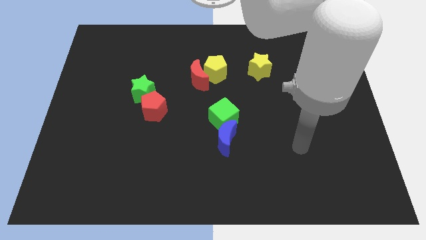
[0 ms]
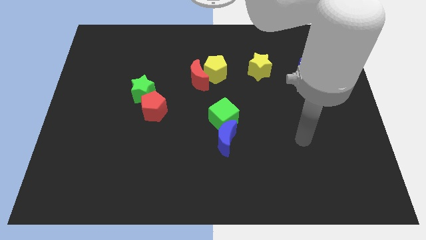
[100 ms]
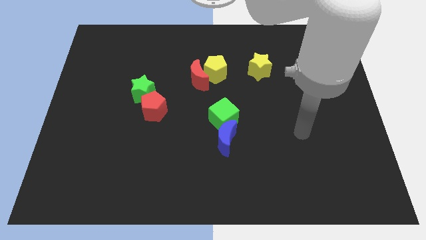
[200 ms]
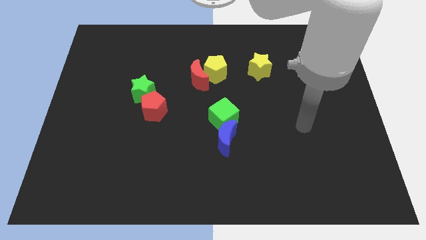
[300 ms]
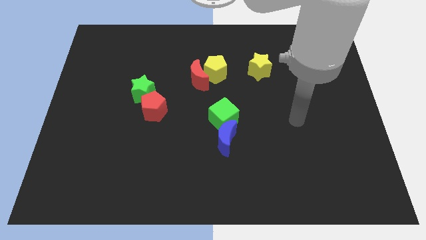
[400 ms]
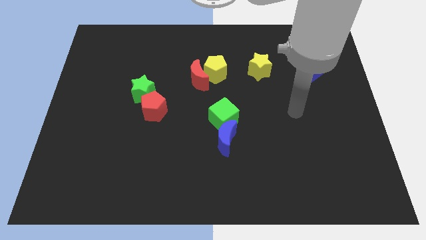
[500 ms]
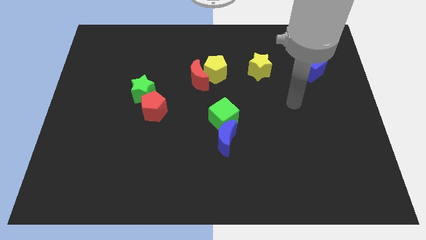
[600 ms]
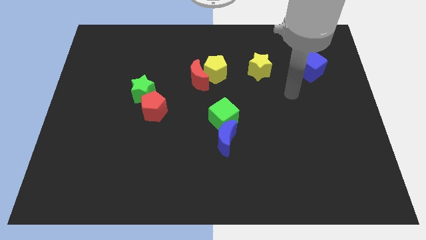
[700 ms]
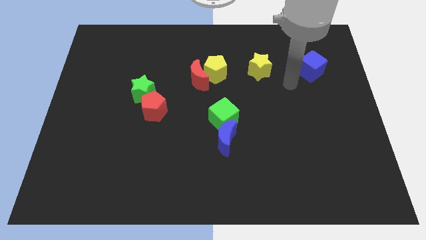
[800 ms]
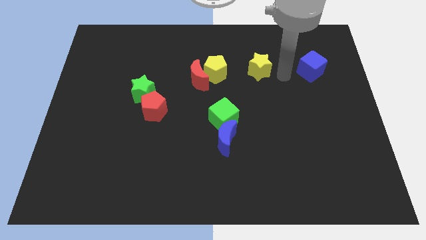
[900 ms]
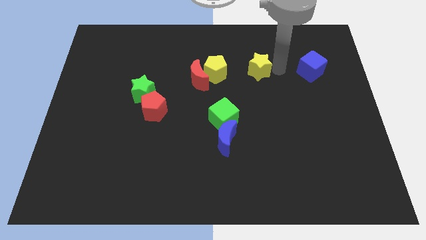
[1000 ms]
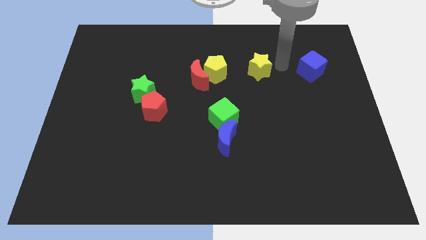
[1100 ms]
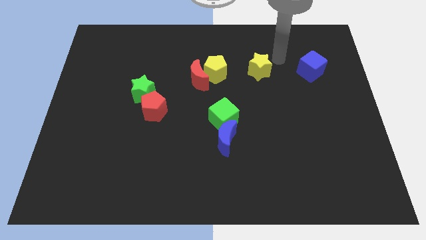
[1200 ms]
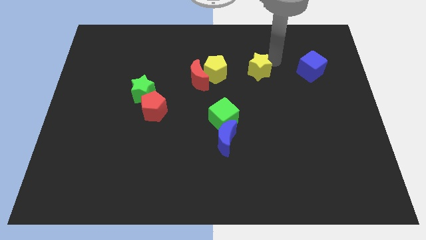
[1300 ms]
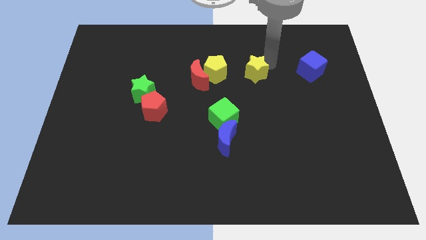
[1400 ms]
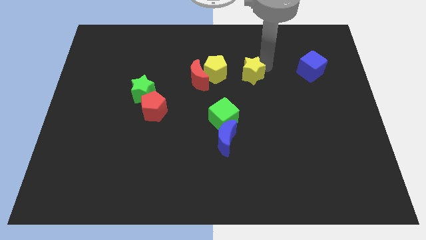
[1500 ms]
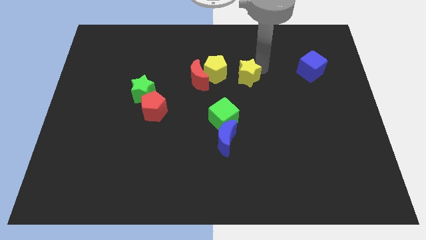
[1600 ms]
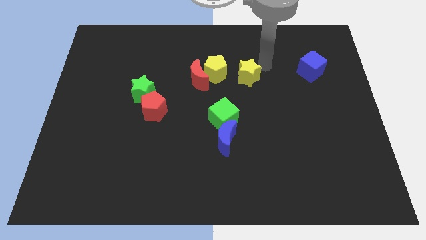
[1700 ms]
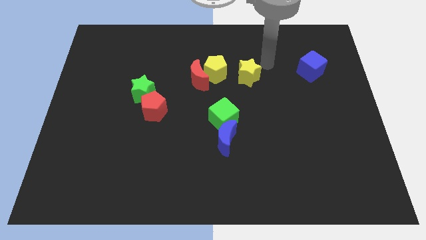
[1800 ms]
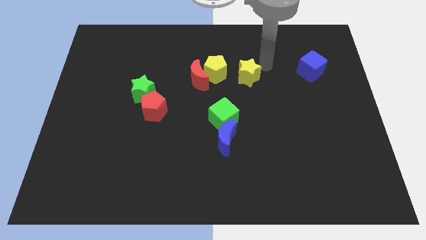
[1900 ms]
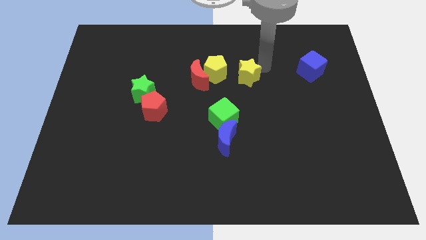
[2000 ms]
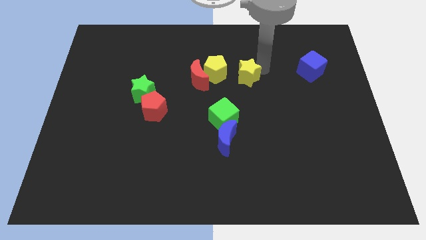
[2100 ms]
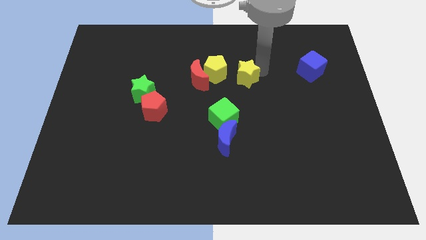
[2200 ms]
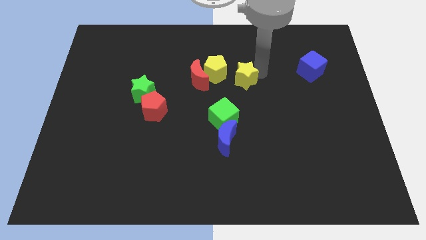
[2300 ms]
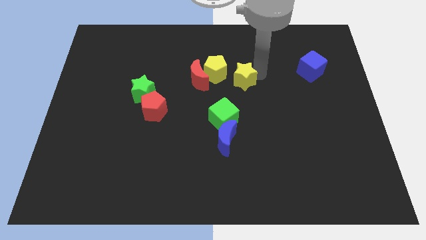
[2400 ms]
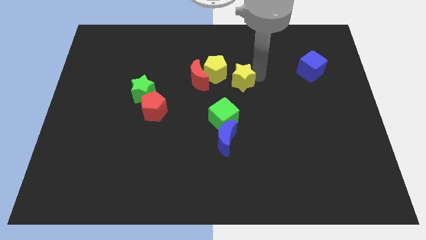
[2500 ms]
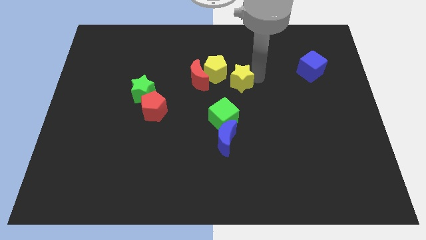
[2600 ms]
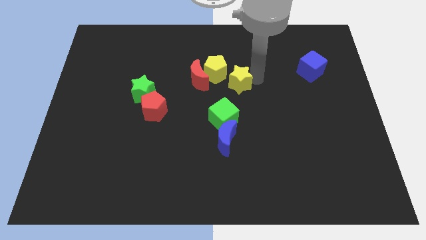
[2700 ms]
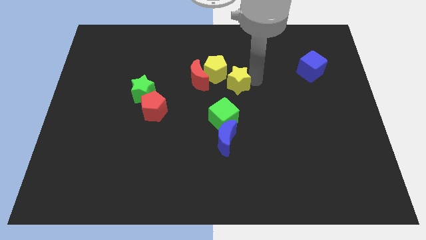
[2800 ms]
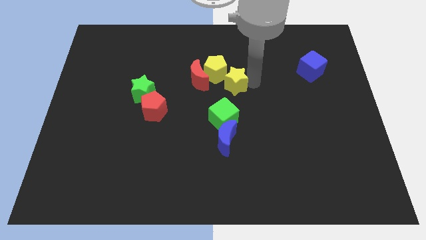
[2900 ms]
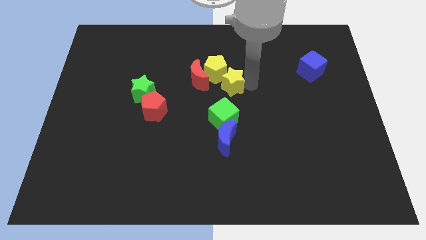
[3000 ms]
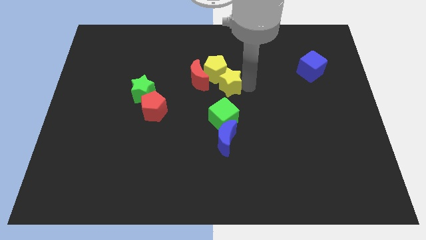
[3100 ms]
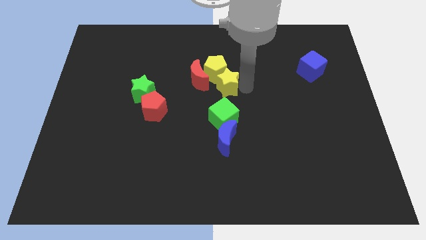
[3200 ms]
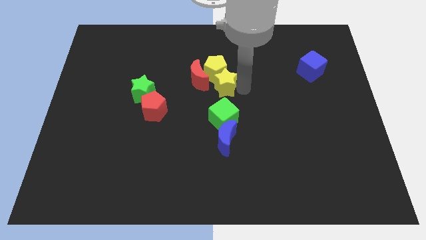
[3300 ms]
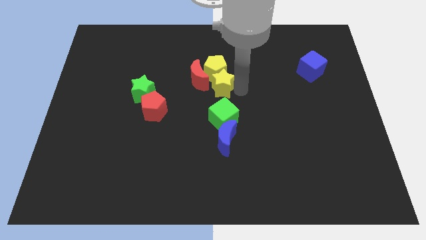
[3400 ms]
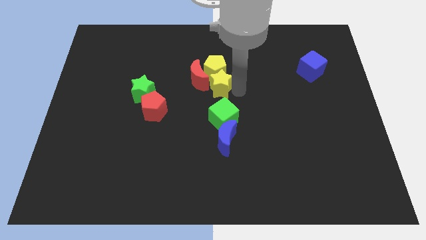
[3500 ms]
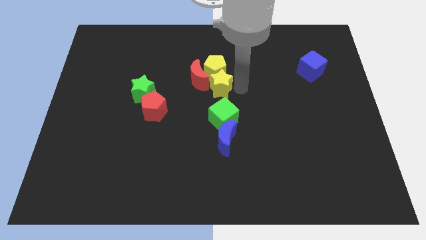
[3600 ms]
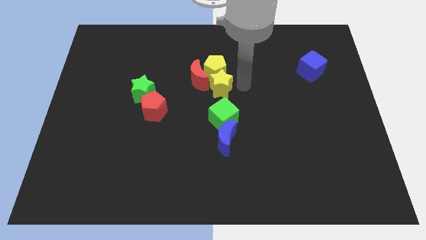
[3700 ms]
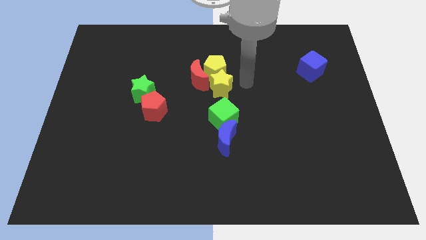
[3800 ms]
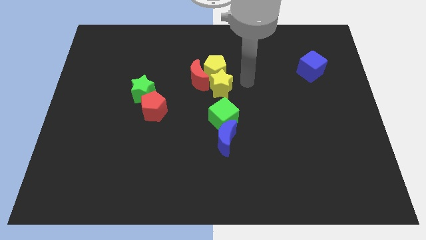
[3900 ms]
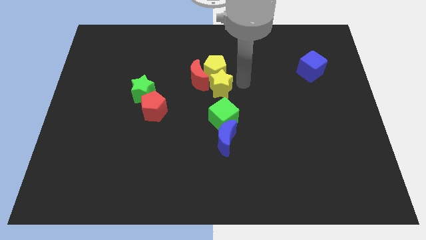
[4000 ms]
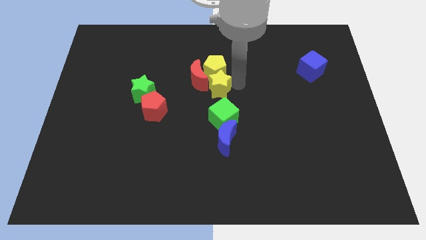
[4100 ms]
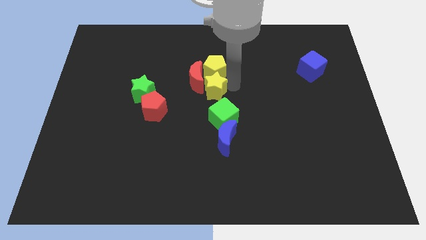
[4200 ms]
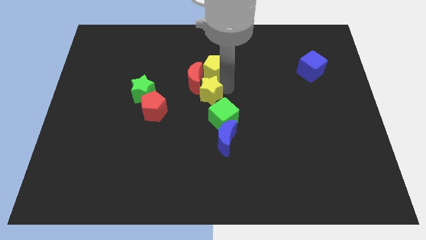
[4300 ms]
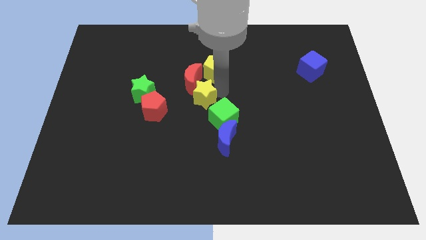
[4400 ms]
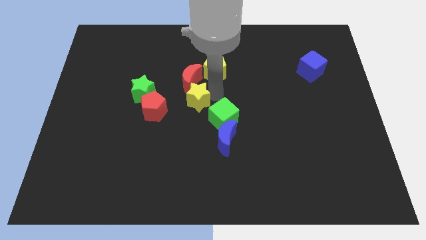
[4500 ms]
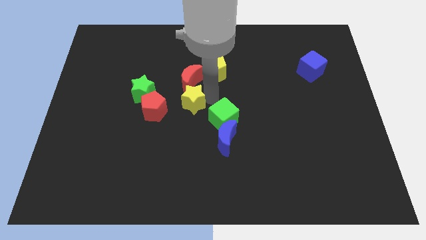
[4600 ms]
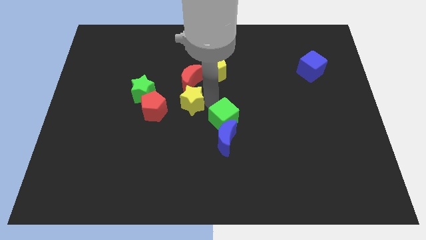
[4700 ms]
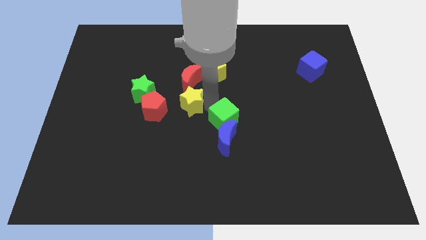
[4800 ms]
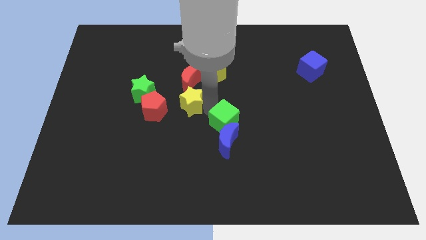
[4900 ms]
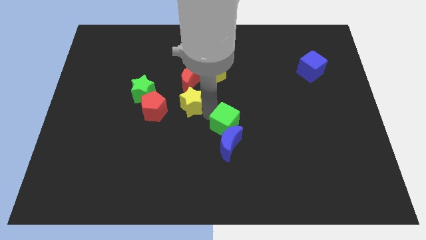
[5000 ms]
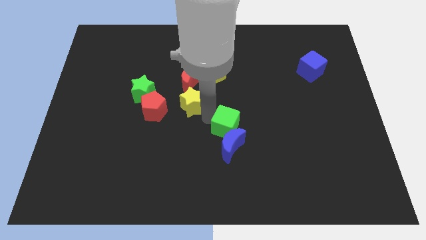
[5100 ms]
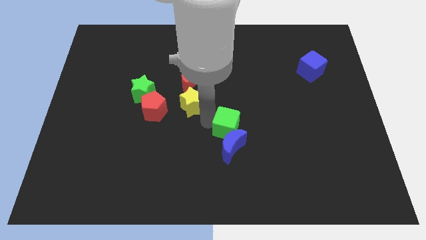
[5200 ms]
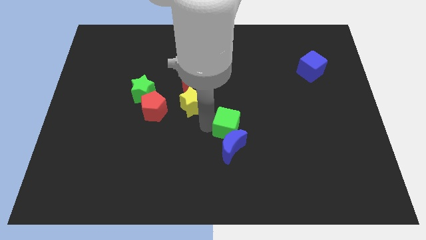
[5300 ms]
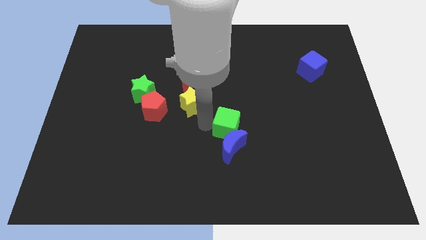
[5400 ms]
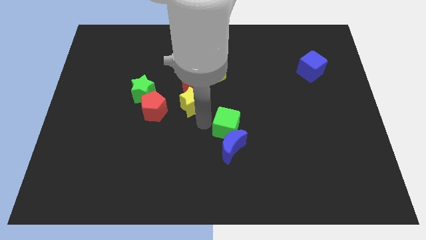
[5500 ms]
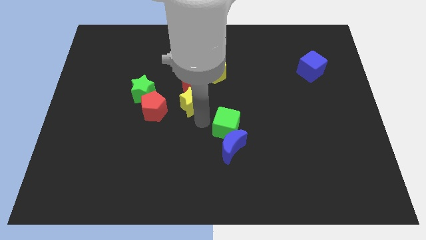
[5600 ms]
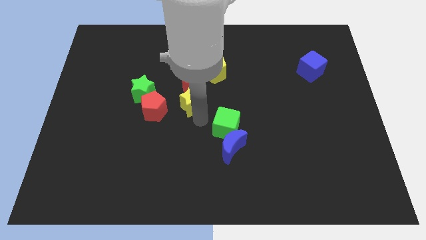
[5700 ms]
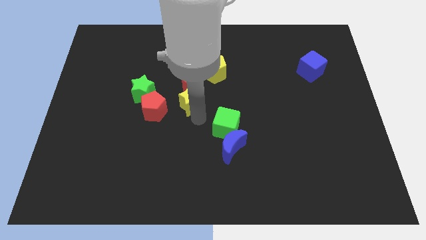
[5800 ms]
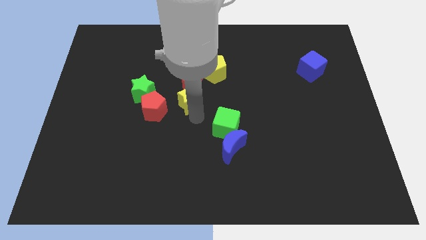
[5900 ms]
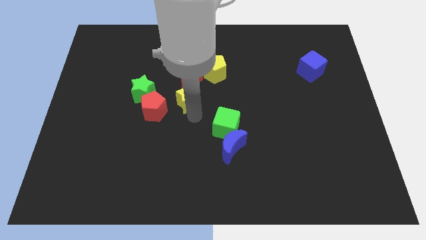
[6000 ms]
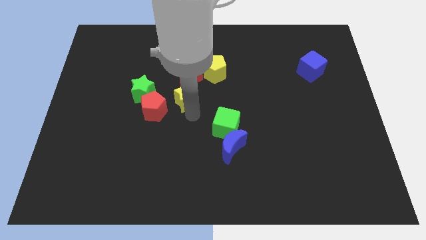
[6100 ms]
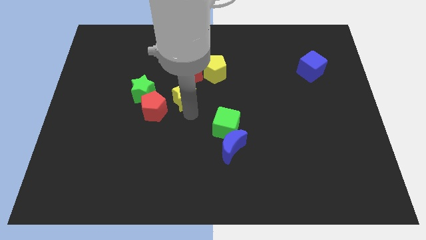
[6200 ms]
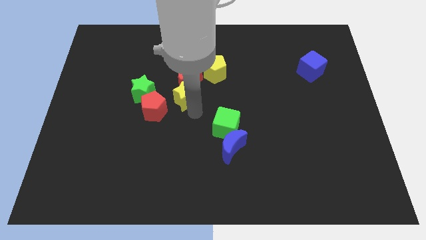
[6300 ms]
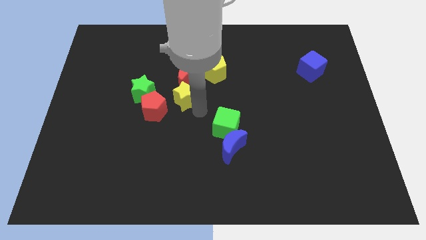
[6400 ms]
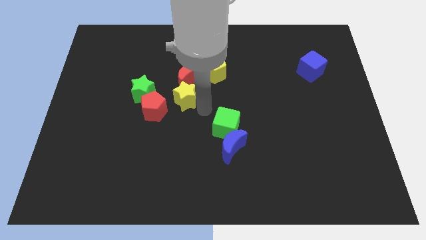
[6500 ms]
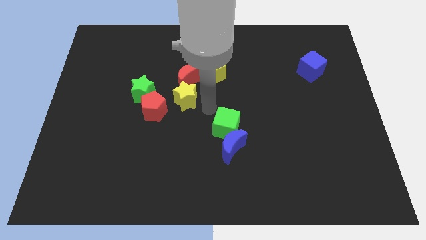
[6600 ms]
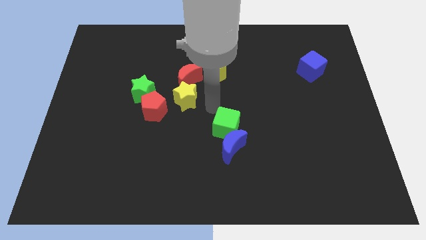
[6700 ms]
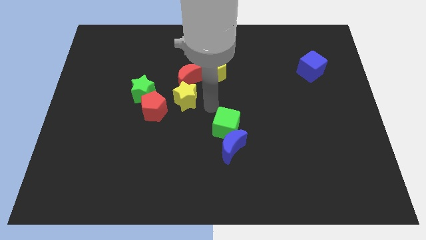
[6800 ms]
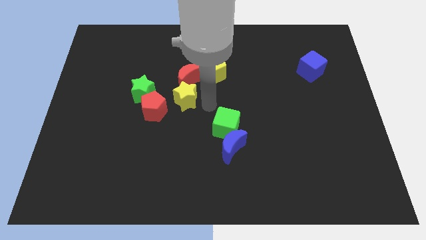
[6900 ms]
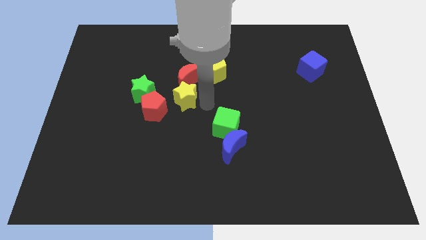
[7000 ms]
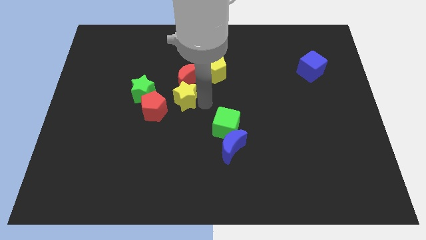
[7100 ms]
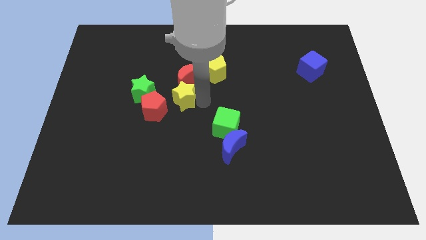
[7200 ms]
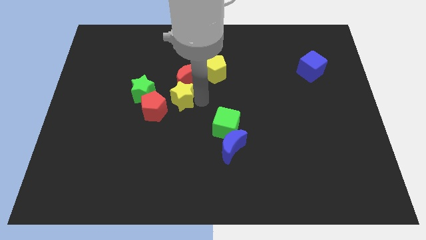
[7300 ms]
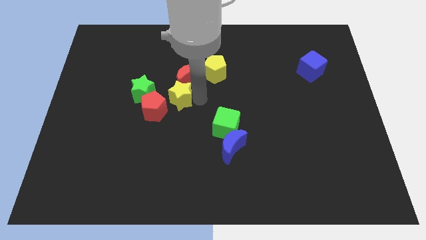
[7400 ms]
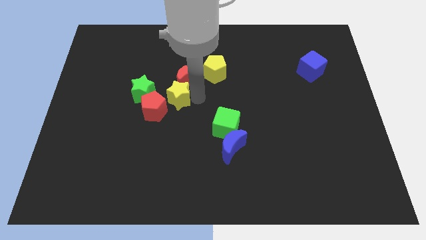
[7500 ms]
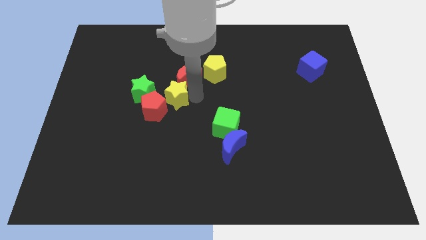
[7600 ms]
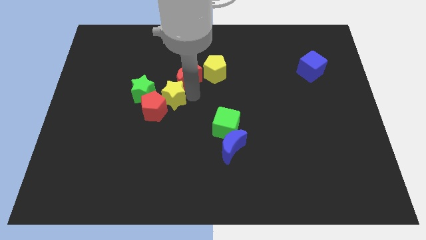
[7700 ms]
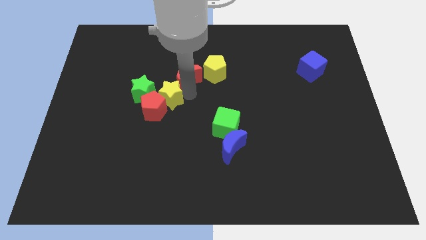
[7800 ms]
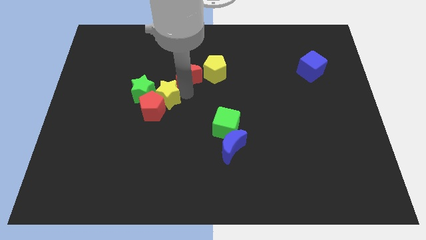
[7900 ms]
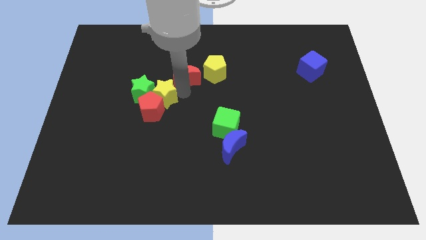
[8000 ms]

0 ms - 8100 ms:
put the yellow star to the green star
